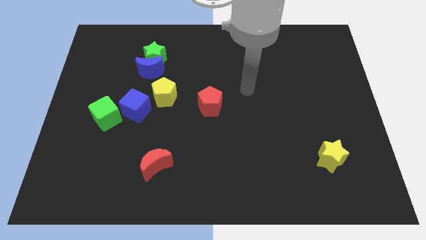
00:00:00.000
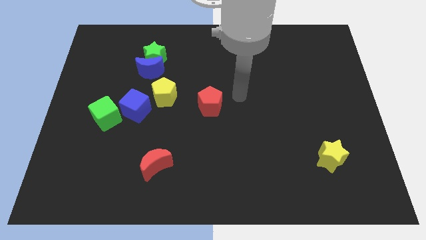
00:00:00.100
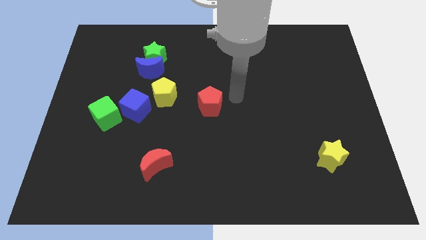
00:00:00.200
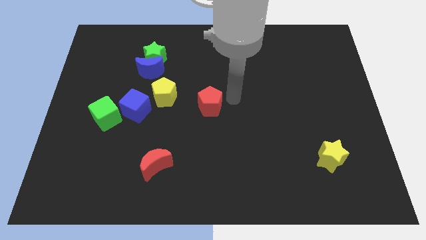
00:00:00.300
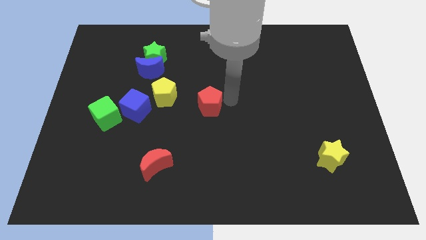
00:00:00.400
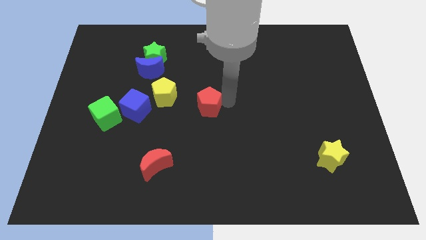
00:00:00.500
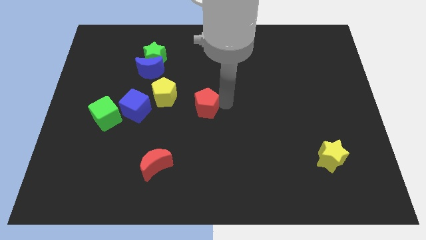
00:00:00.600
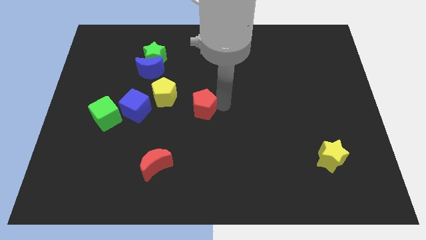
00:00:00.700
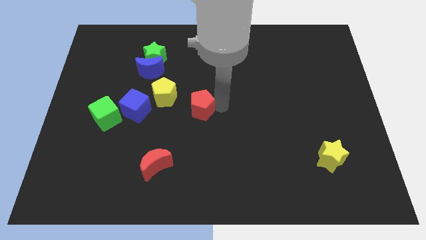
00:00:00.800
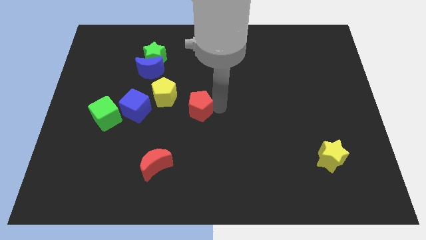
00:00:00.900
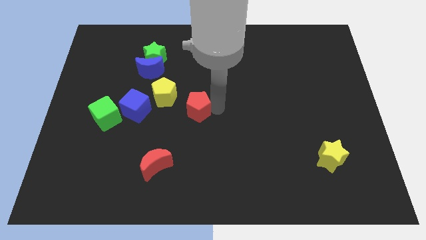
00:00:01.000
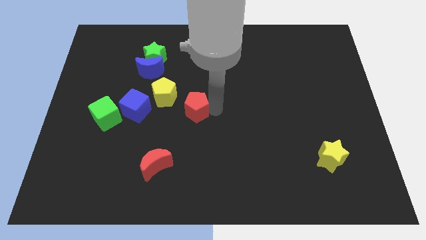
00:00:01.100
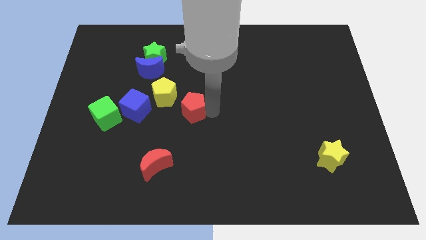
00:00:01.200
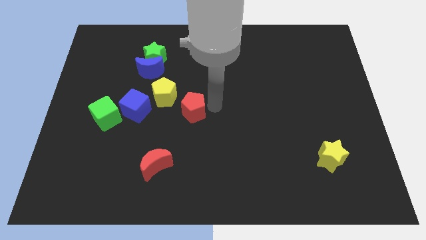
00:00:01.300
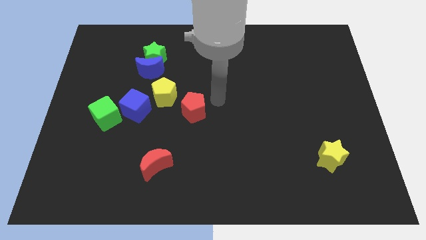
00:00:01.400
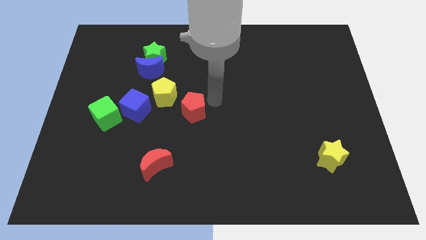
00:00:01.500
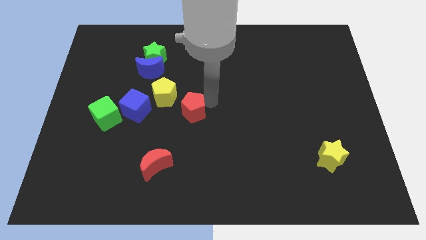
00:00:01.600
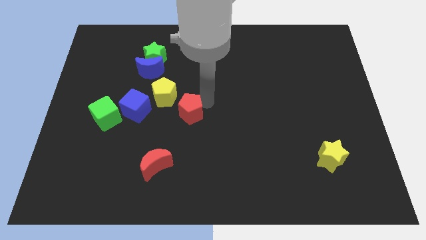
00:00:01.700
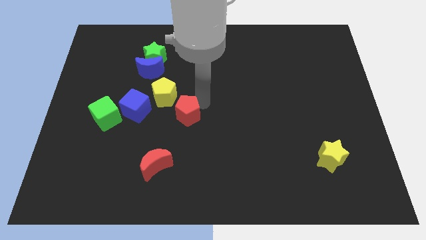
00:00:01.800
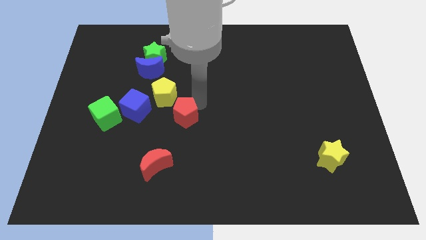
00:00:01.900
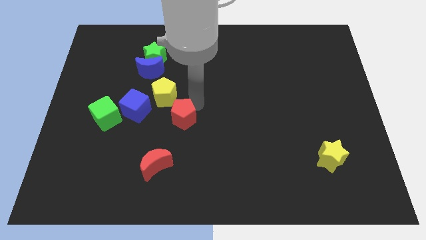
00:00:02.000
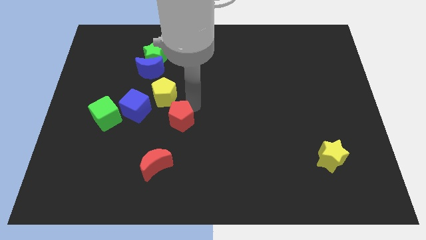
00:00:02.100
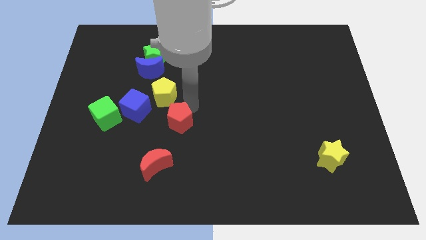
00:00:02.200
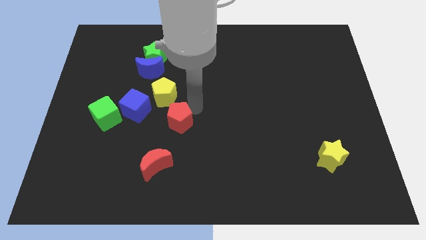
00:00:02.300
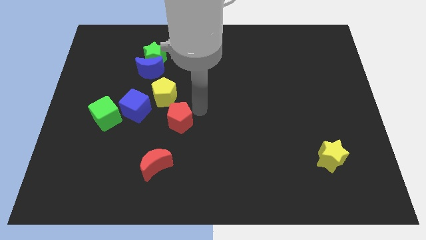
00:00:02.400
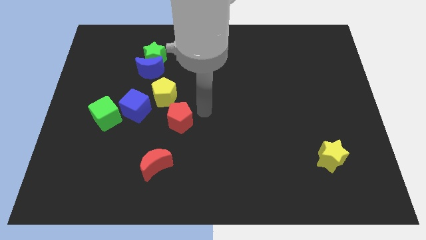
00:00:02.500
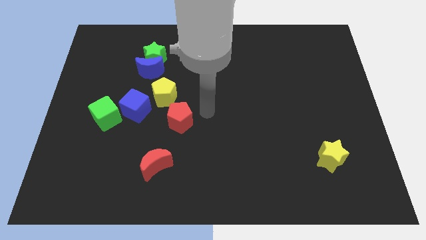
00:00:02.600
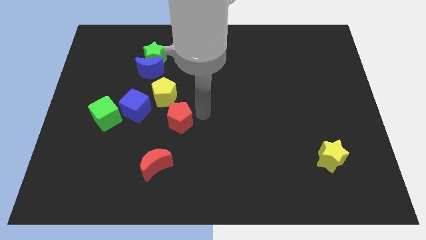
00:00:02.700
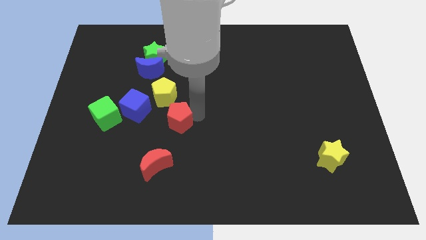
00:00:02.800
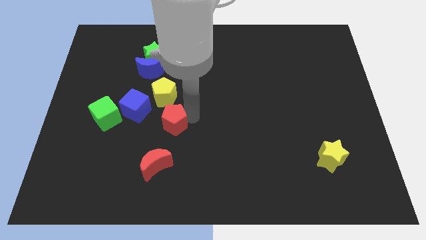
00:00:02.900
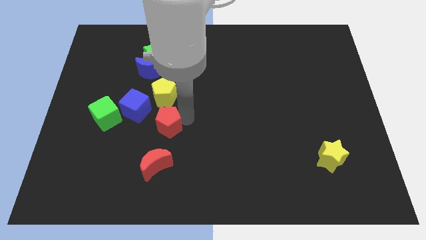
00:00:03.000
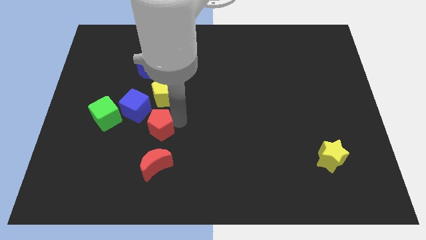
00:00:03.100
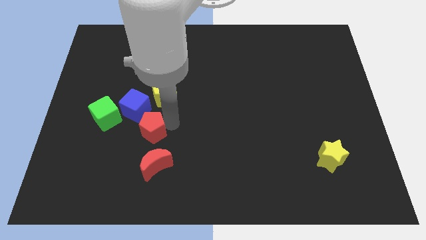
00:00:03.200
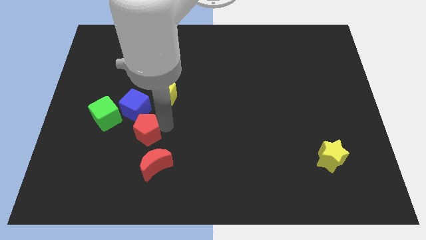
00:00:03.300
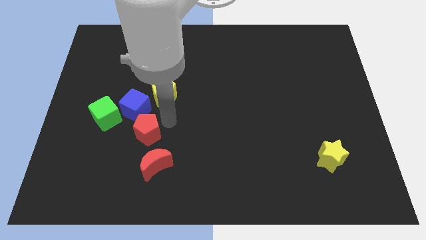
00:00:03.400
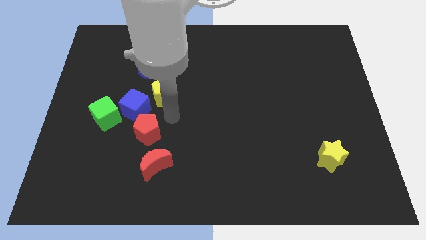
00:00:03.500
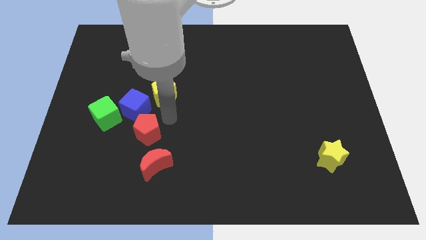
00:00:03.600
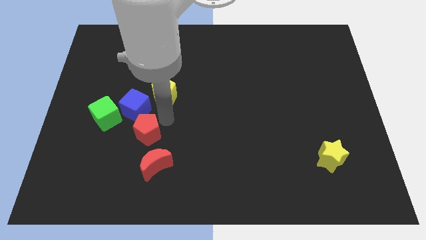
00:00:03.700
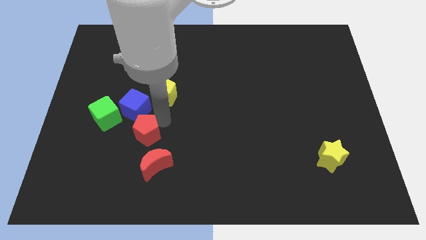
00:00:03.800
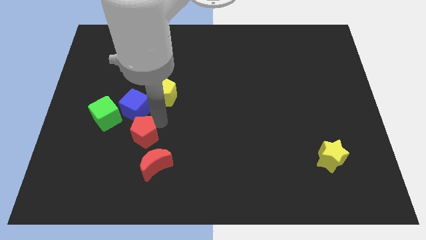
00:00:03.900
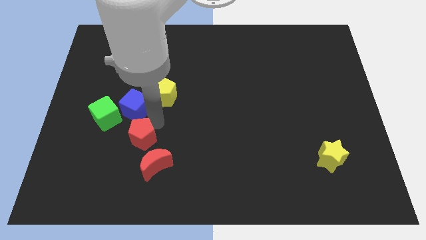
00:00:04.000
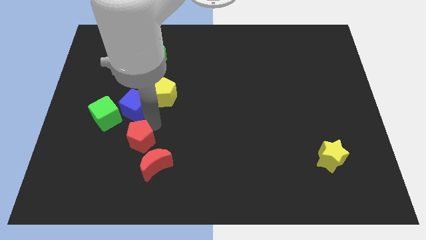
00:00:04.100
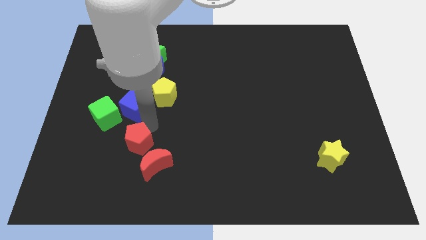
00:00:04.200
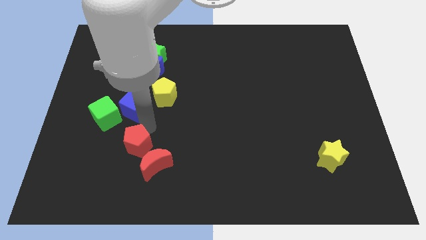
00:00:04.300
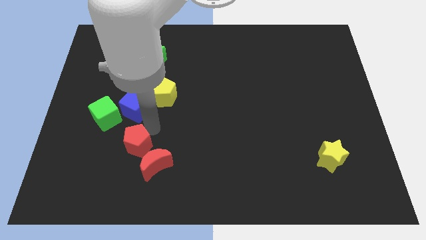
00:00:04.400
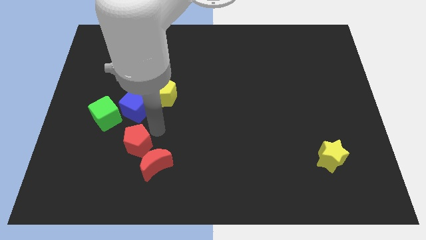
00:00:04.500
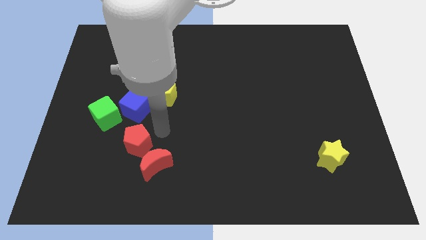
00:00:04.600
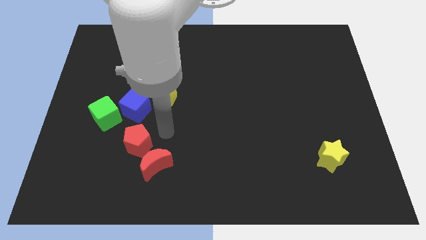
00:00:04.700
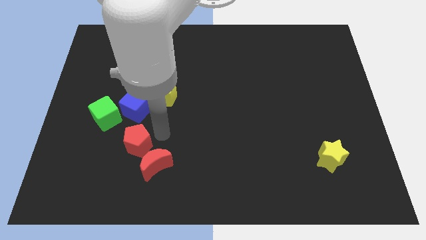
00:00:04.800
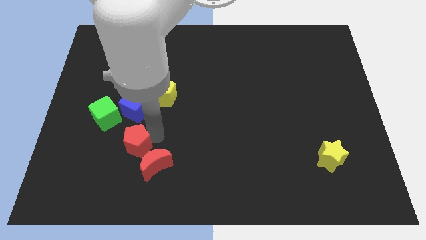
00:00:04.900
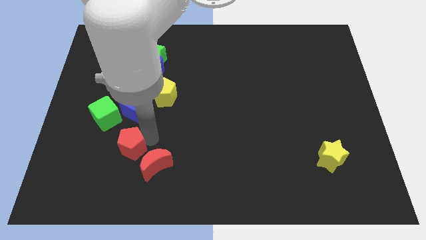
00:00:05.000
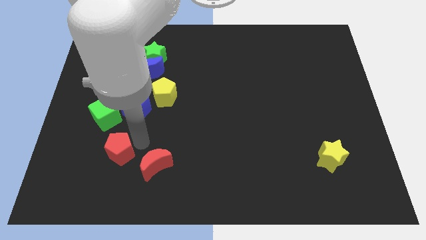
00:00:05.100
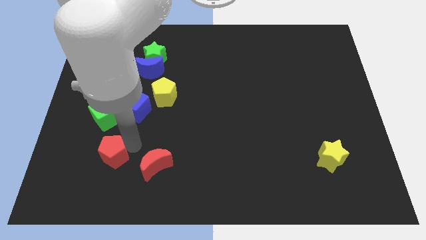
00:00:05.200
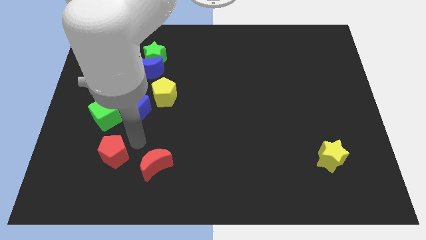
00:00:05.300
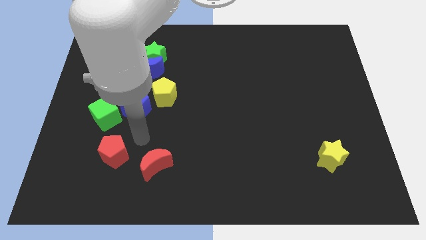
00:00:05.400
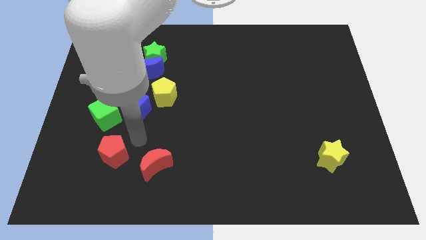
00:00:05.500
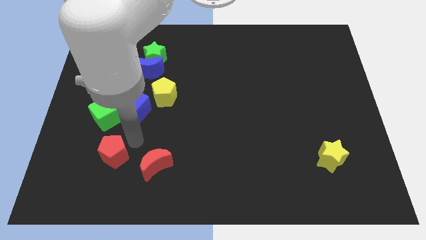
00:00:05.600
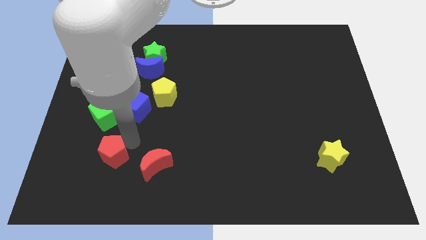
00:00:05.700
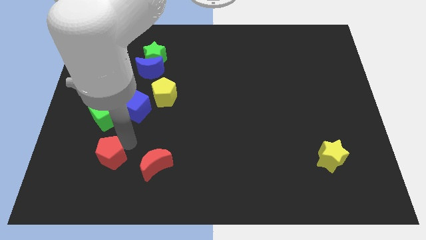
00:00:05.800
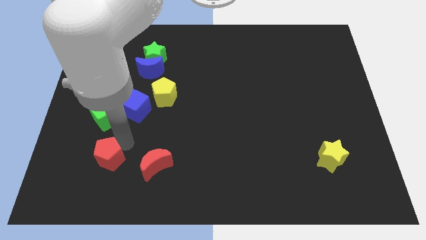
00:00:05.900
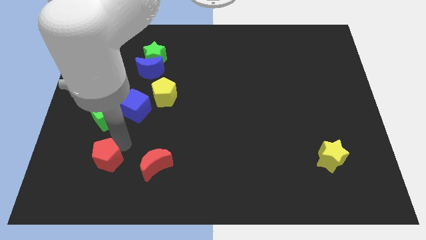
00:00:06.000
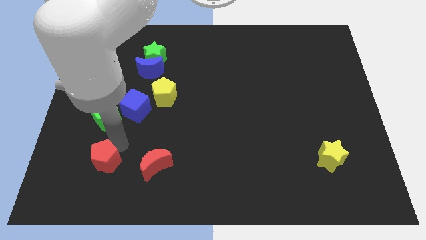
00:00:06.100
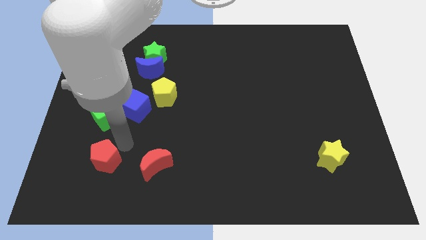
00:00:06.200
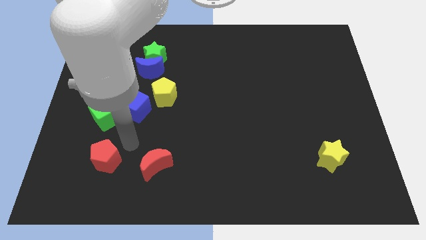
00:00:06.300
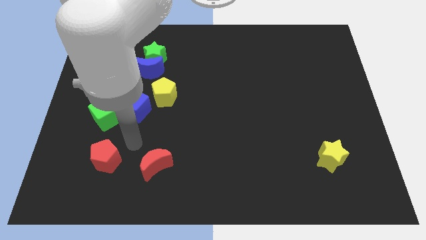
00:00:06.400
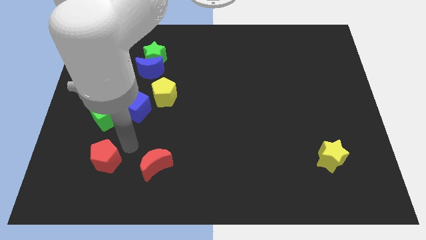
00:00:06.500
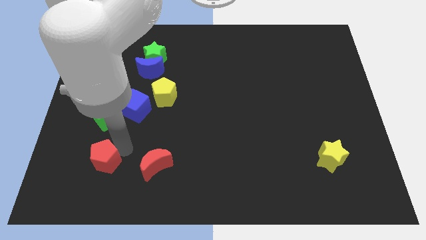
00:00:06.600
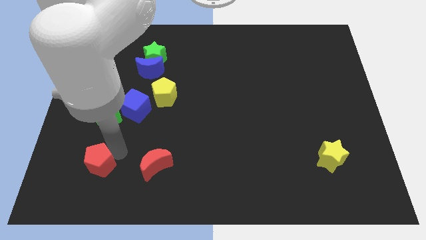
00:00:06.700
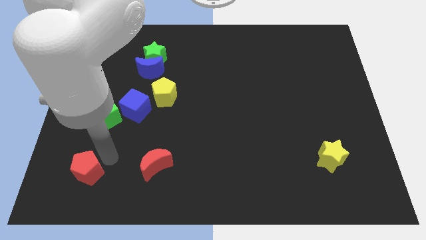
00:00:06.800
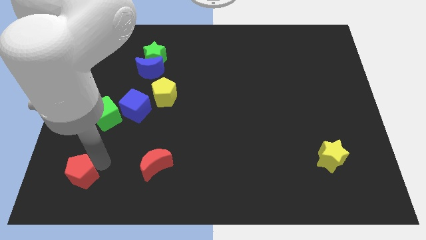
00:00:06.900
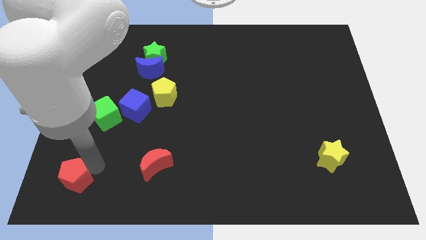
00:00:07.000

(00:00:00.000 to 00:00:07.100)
slide the red pentagon to the bottom left
